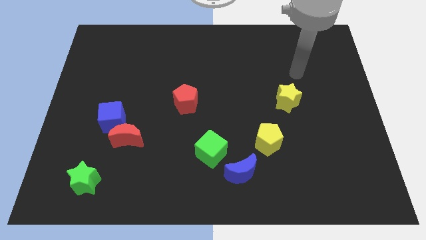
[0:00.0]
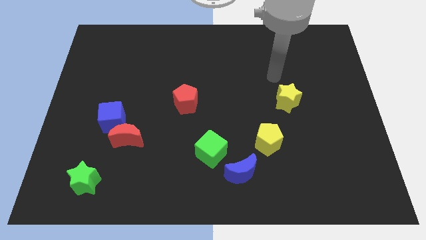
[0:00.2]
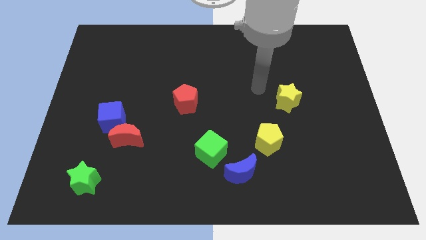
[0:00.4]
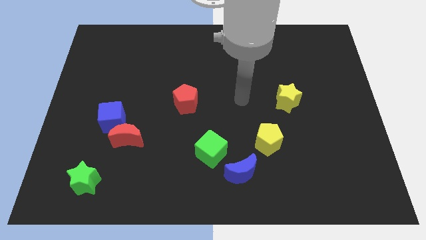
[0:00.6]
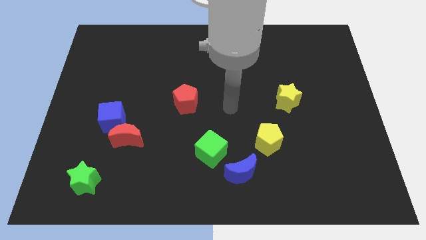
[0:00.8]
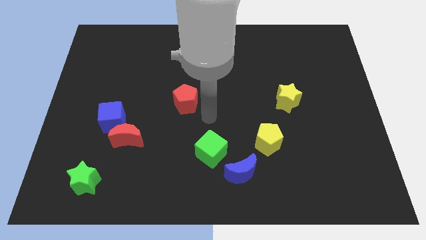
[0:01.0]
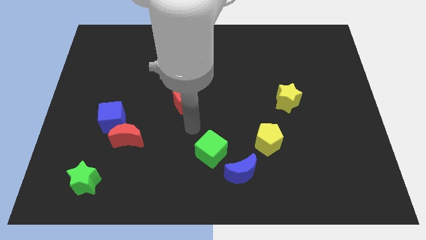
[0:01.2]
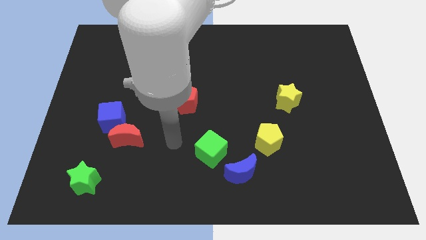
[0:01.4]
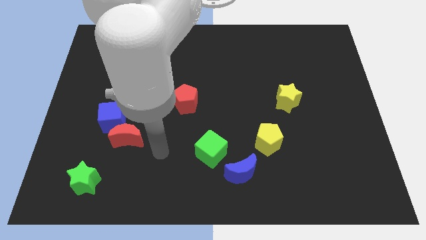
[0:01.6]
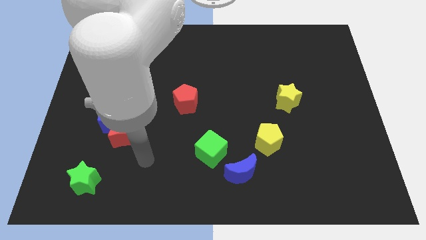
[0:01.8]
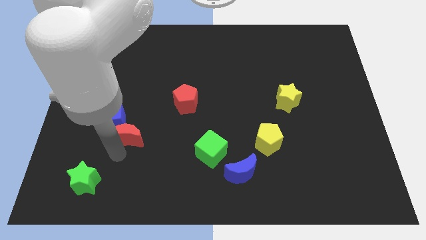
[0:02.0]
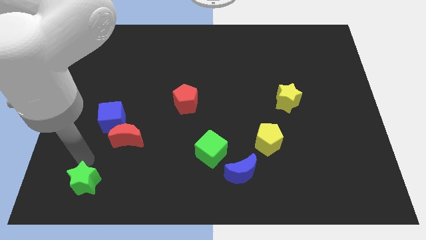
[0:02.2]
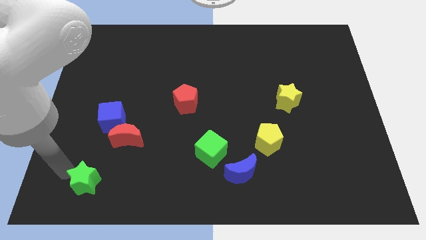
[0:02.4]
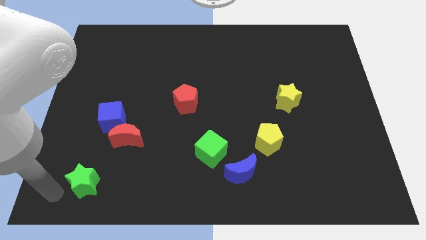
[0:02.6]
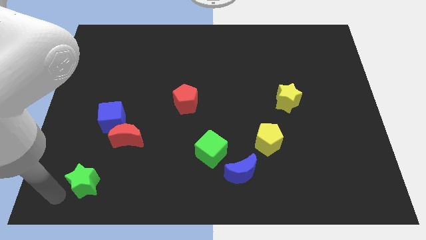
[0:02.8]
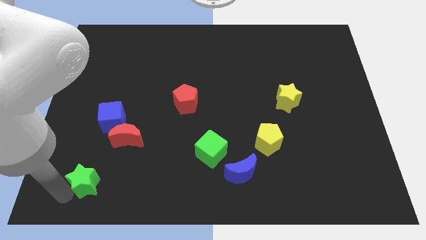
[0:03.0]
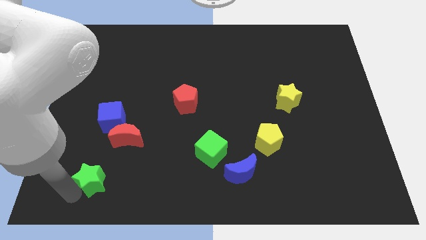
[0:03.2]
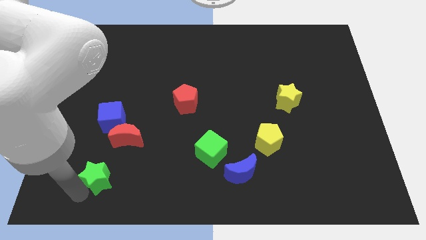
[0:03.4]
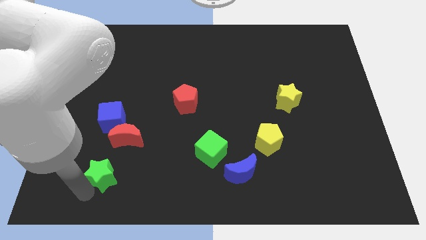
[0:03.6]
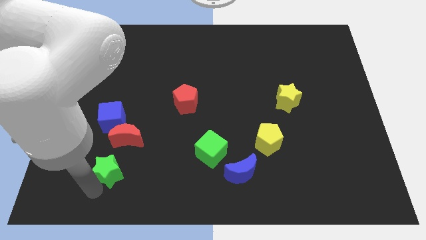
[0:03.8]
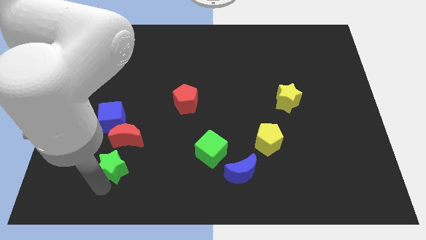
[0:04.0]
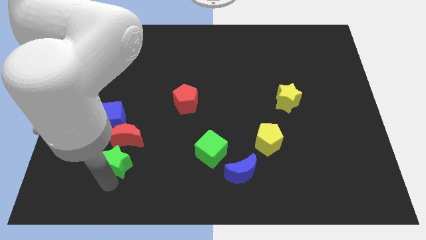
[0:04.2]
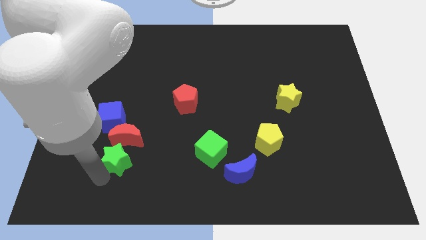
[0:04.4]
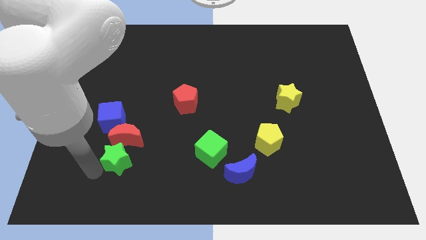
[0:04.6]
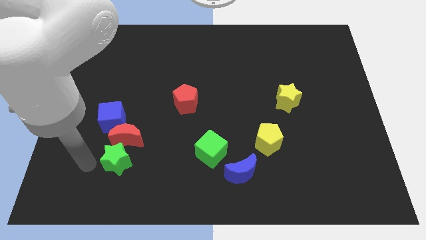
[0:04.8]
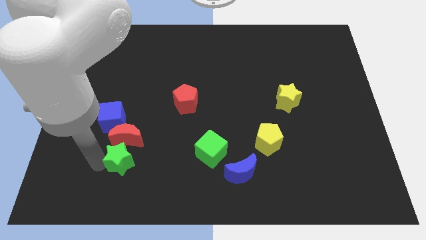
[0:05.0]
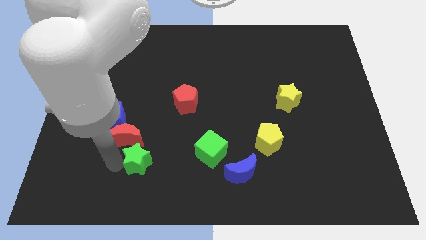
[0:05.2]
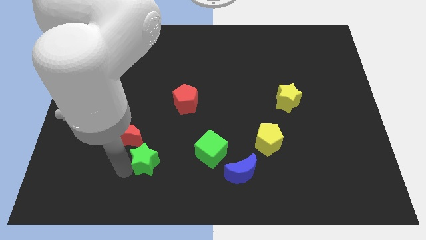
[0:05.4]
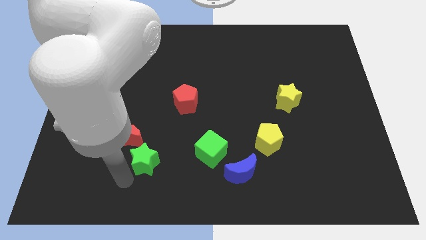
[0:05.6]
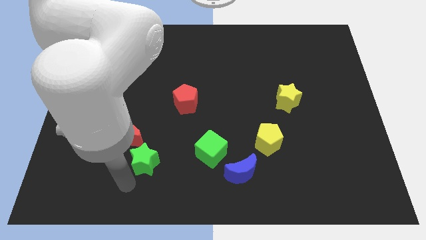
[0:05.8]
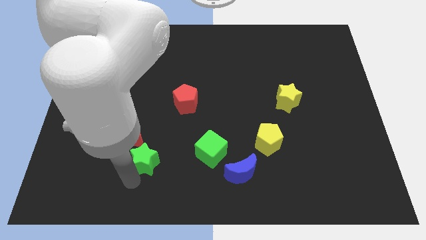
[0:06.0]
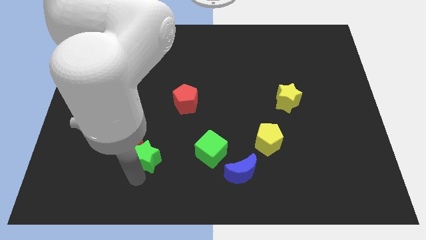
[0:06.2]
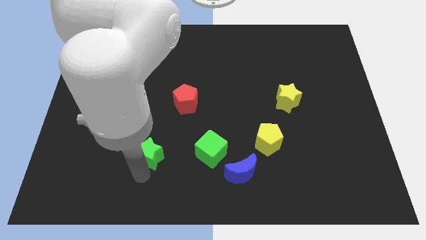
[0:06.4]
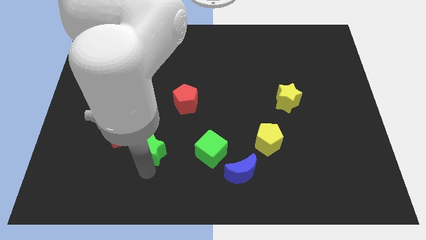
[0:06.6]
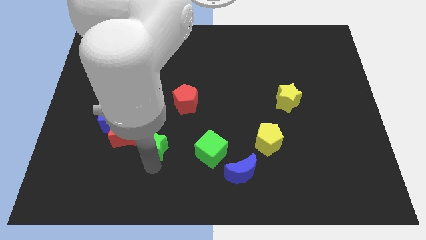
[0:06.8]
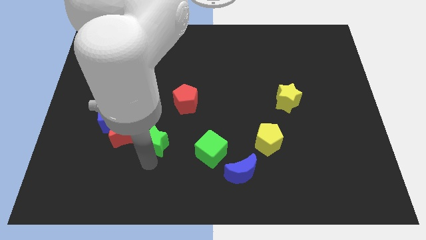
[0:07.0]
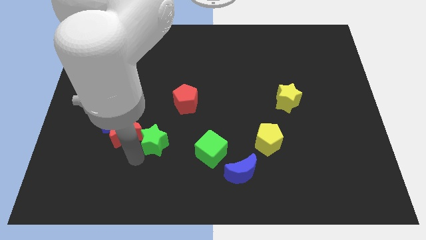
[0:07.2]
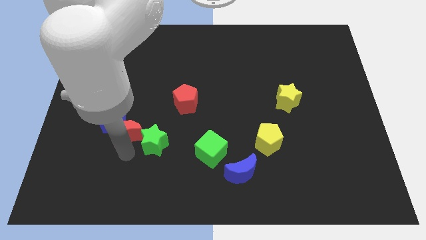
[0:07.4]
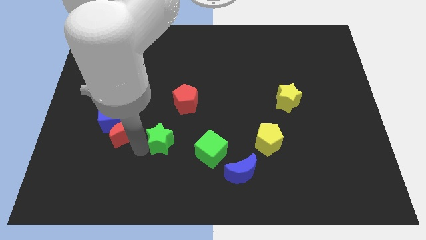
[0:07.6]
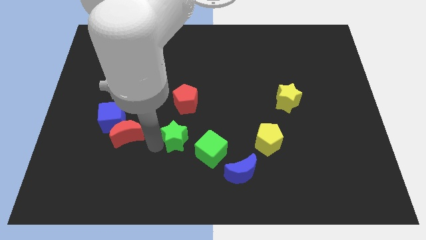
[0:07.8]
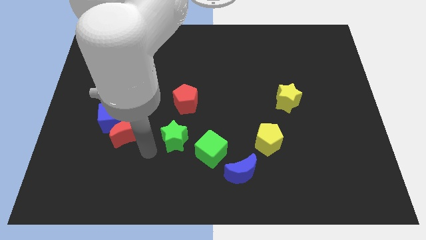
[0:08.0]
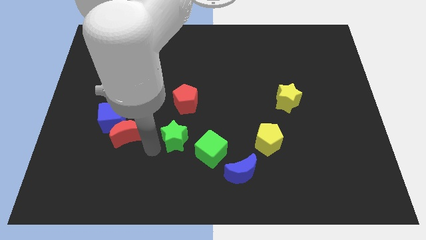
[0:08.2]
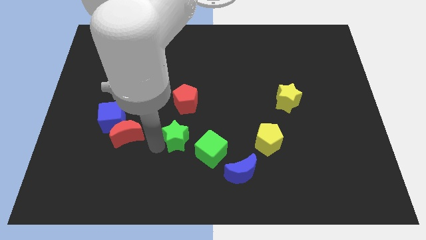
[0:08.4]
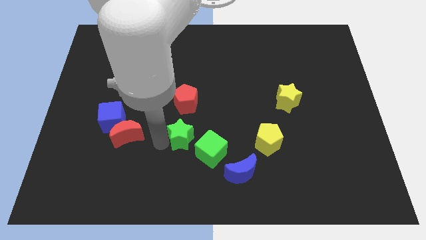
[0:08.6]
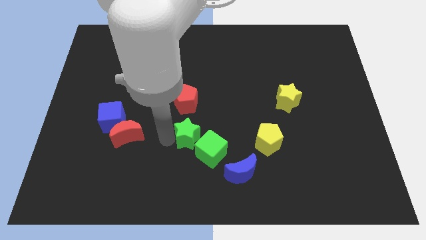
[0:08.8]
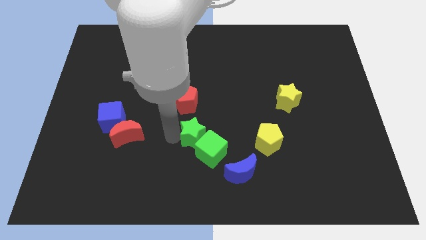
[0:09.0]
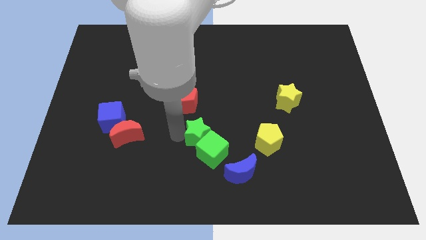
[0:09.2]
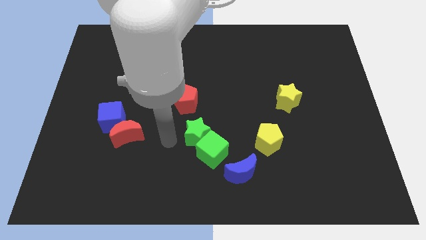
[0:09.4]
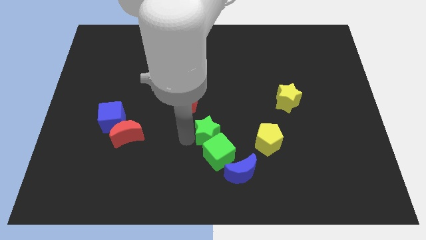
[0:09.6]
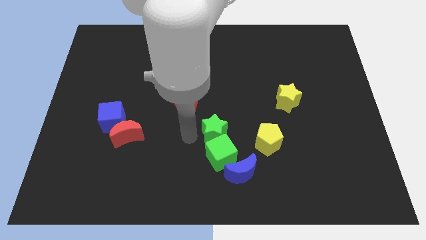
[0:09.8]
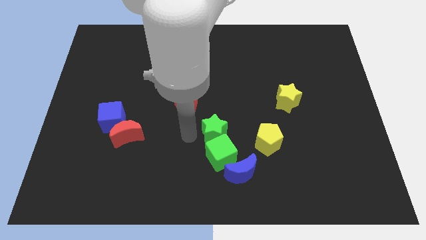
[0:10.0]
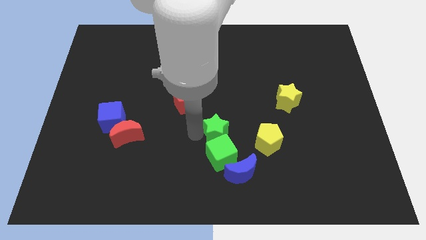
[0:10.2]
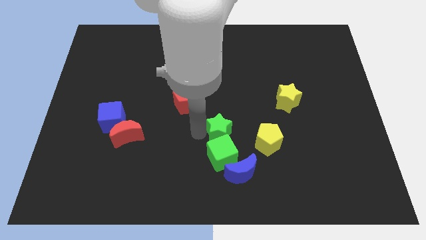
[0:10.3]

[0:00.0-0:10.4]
slide the green star above the blue moon

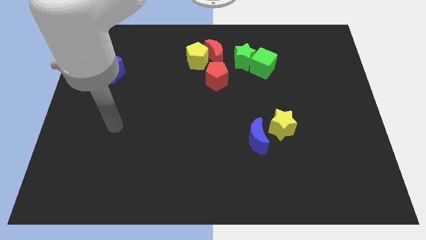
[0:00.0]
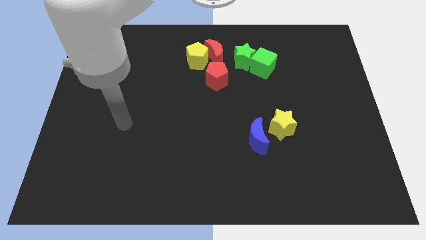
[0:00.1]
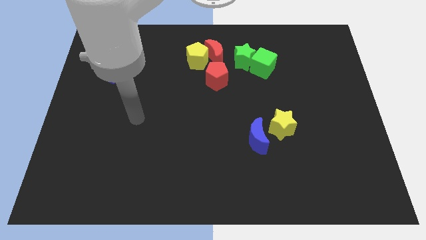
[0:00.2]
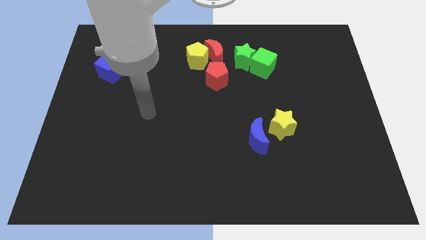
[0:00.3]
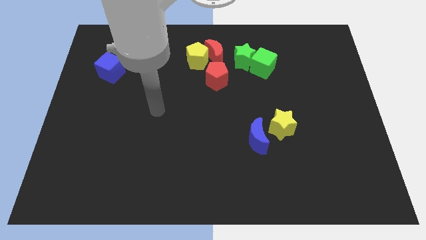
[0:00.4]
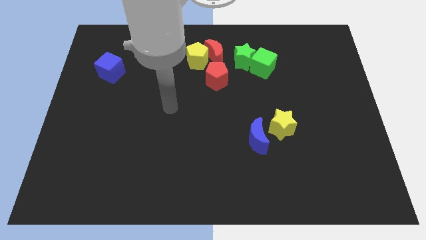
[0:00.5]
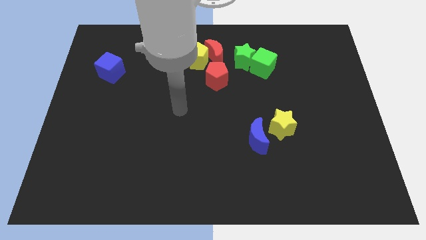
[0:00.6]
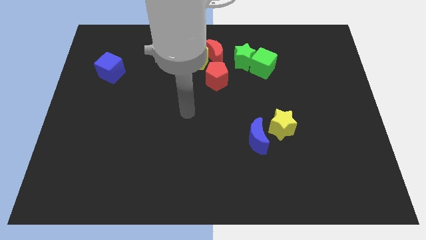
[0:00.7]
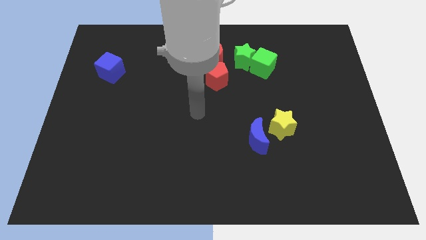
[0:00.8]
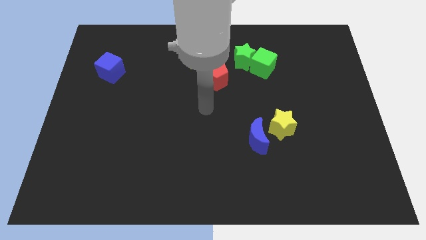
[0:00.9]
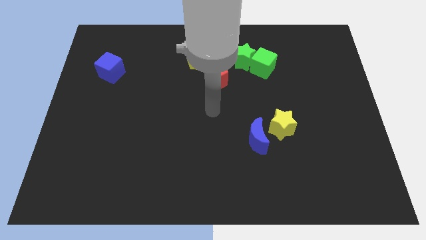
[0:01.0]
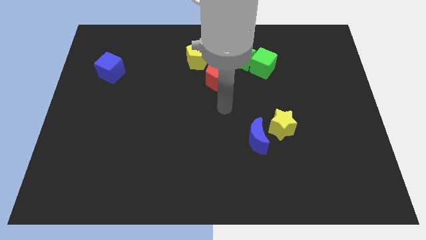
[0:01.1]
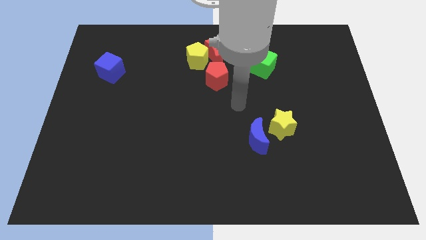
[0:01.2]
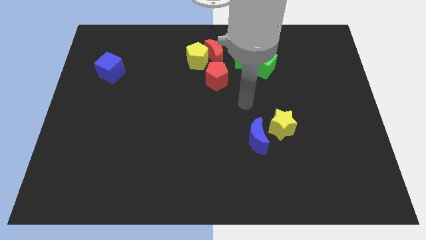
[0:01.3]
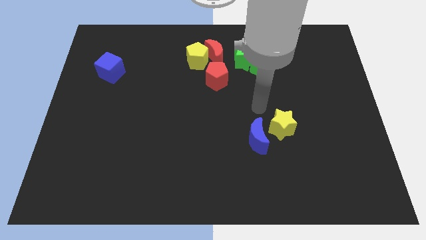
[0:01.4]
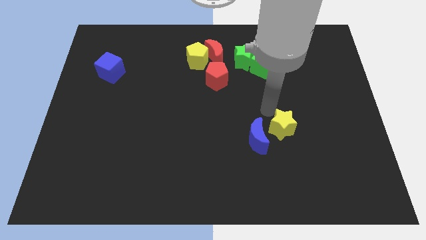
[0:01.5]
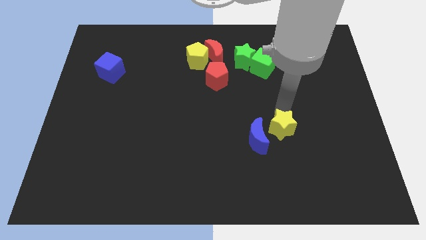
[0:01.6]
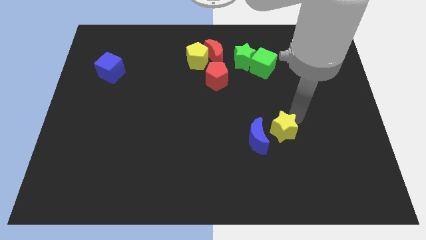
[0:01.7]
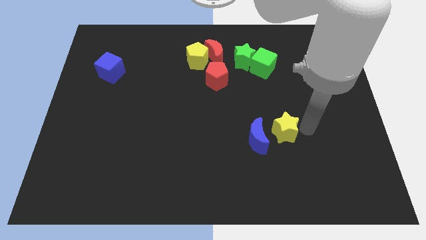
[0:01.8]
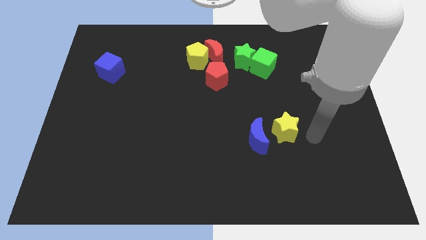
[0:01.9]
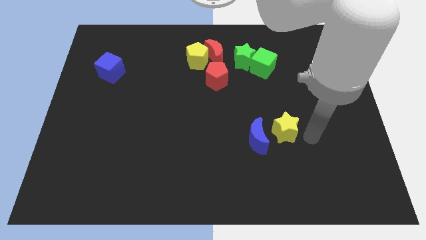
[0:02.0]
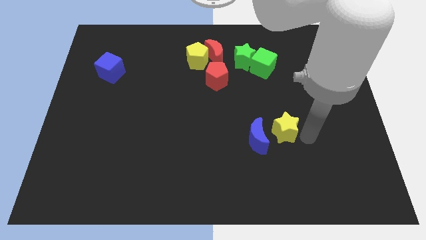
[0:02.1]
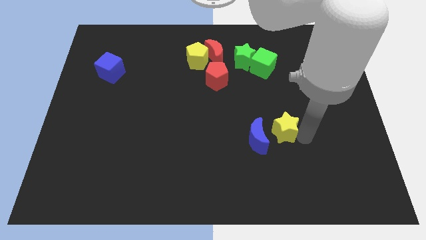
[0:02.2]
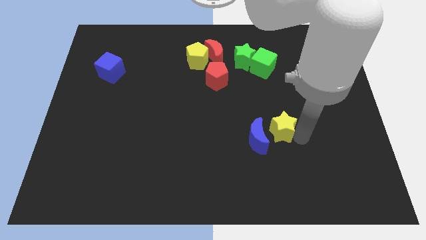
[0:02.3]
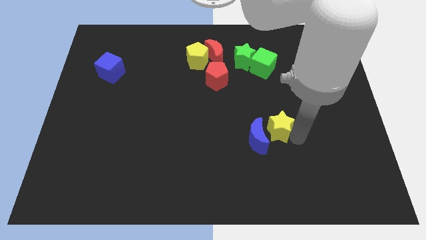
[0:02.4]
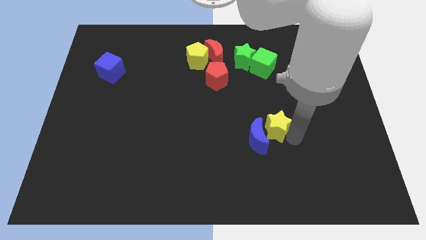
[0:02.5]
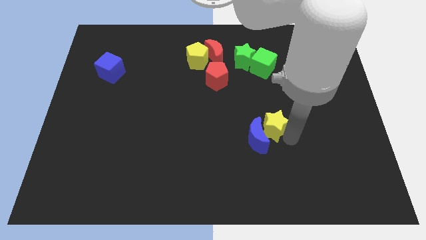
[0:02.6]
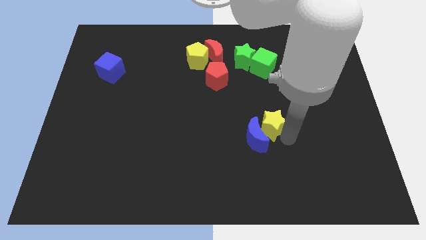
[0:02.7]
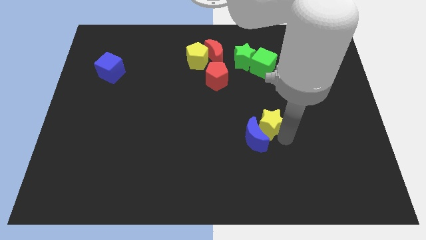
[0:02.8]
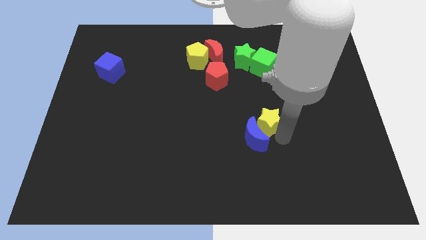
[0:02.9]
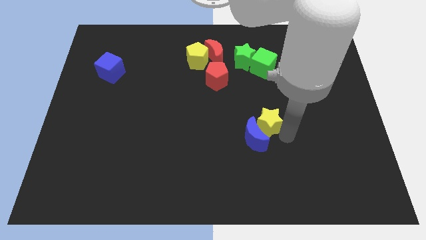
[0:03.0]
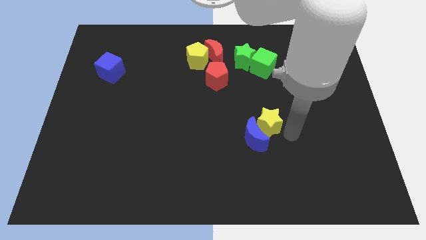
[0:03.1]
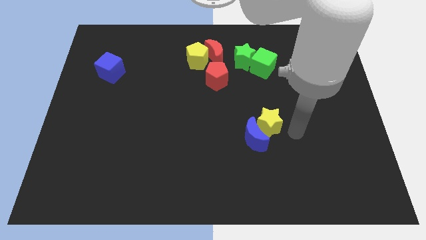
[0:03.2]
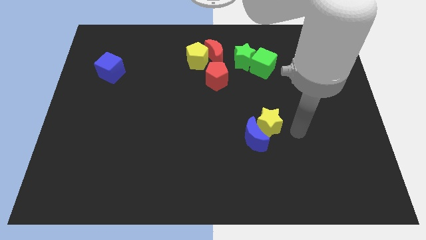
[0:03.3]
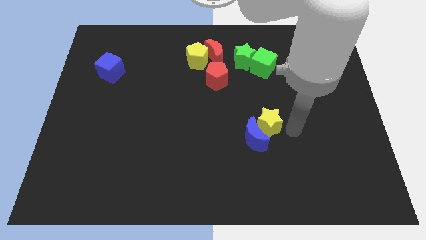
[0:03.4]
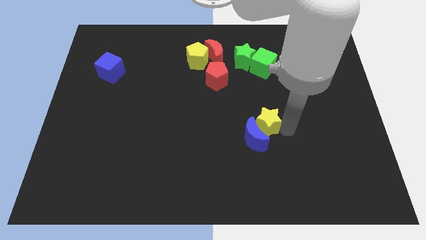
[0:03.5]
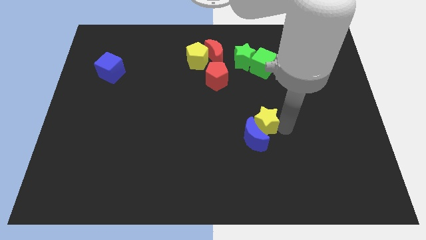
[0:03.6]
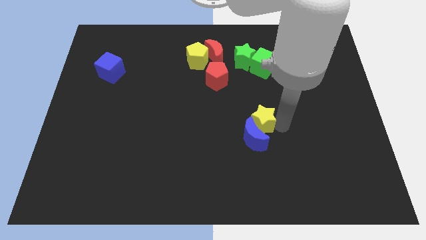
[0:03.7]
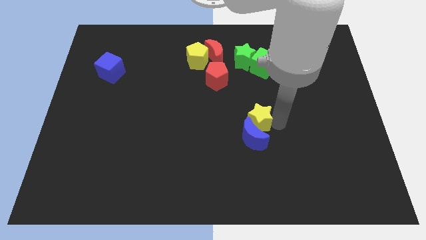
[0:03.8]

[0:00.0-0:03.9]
move the yellow star diagonally up and to the left of the blue moon

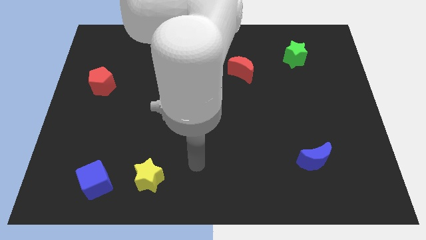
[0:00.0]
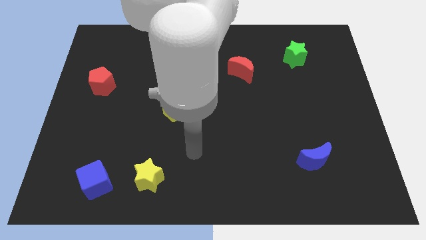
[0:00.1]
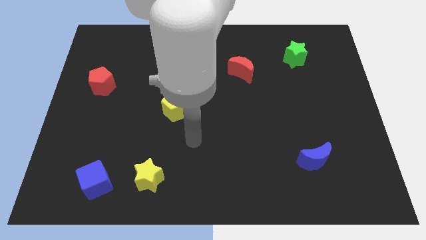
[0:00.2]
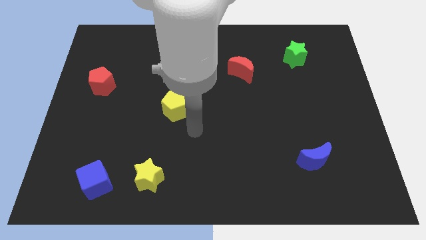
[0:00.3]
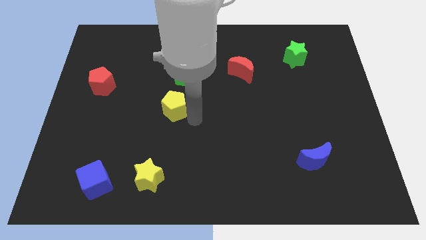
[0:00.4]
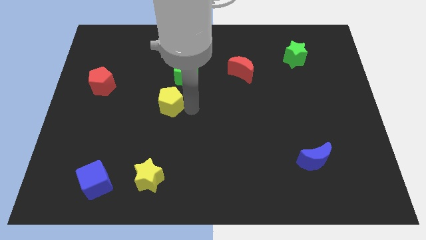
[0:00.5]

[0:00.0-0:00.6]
push the green cube to the top right of the yellow pentagon
